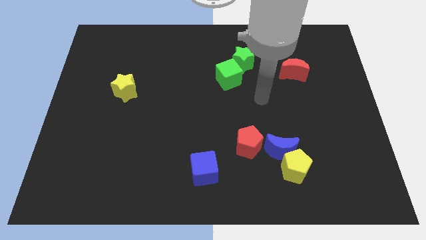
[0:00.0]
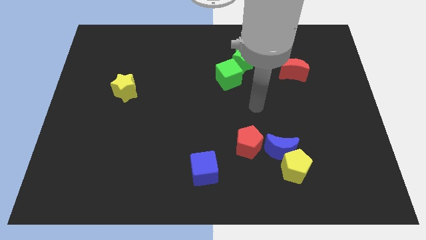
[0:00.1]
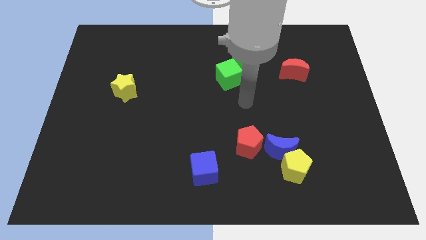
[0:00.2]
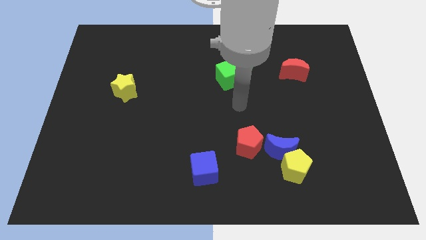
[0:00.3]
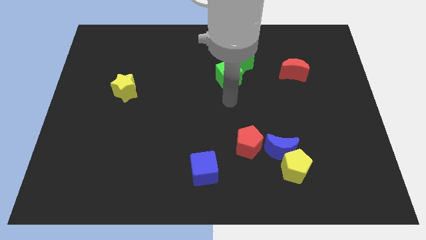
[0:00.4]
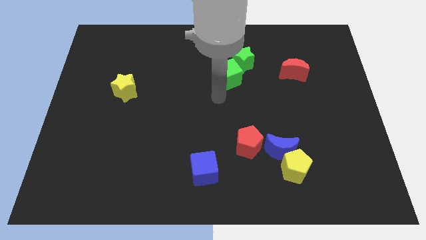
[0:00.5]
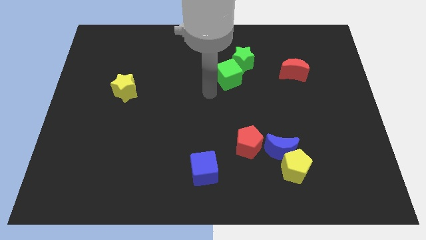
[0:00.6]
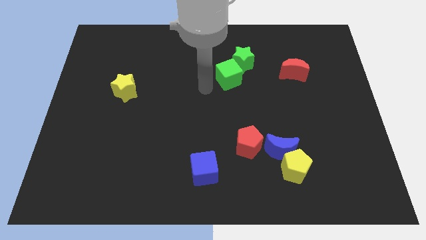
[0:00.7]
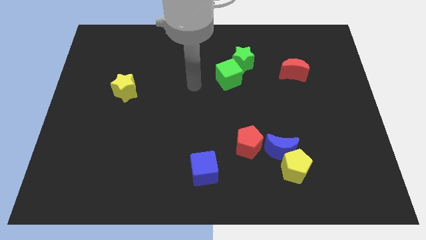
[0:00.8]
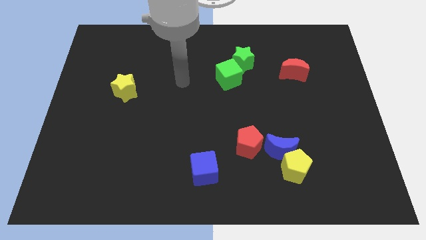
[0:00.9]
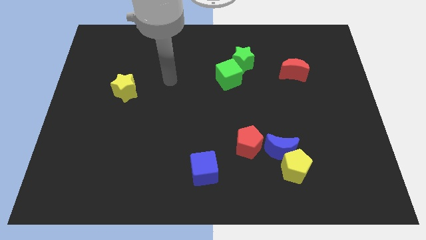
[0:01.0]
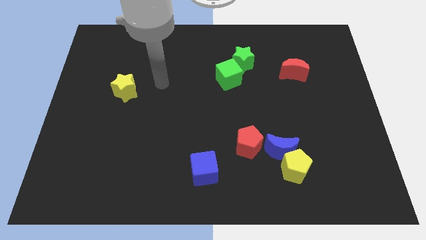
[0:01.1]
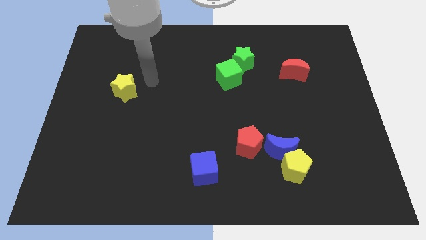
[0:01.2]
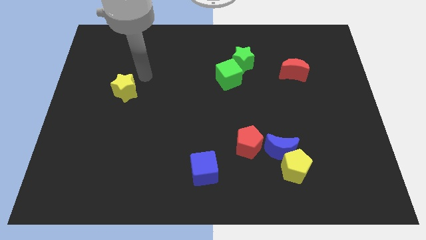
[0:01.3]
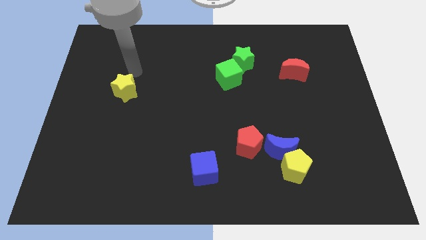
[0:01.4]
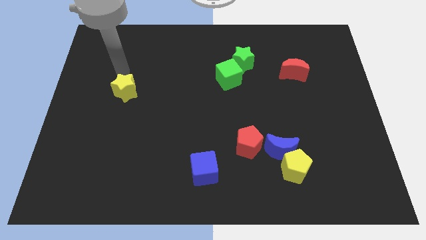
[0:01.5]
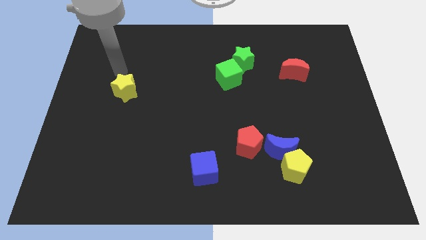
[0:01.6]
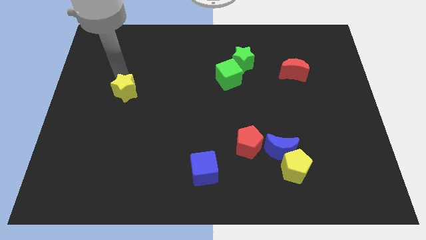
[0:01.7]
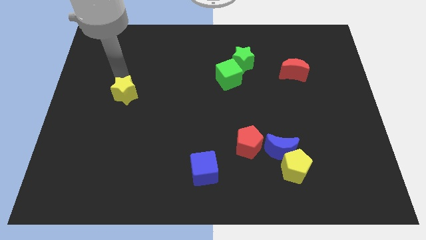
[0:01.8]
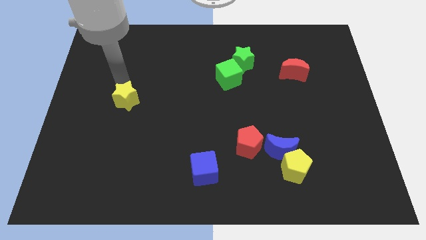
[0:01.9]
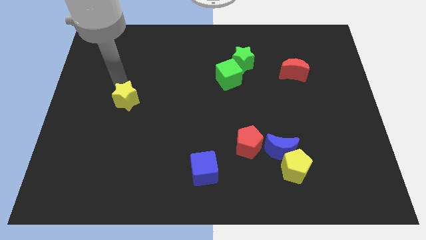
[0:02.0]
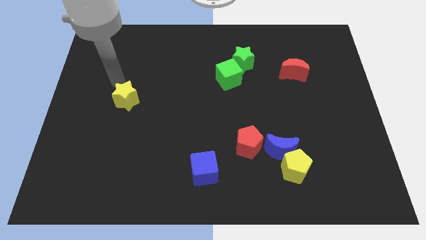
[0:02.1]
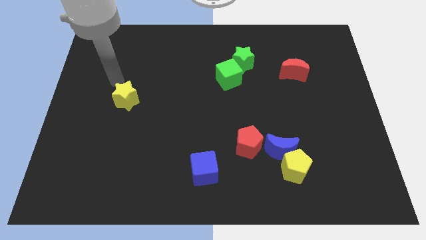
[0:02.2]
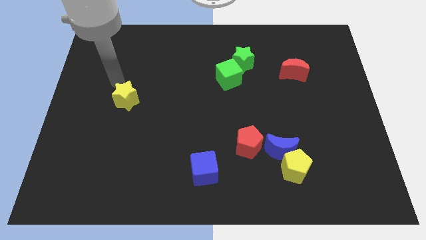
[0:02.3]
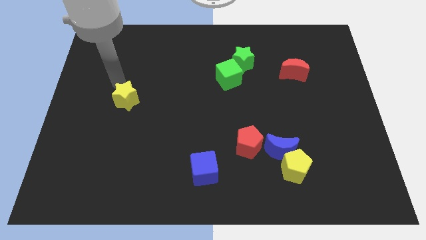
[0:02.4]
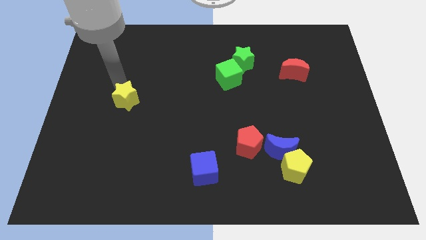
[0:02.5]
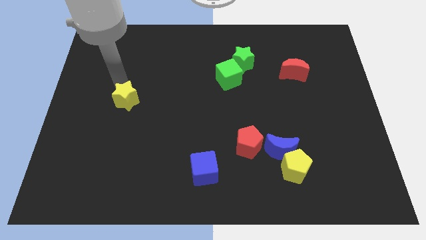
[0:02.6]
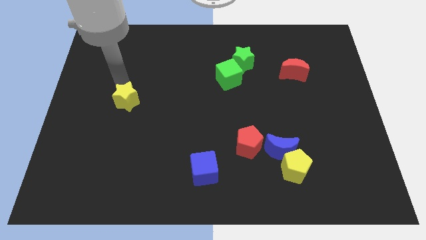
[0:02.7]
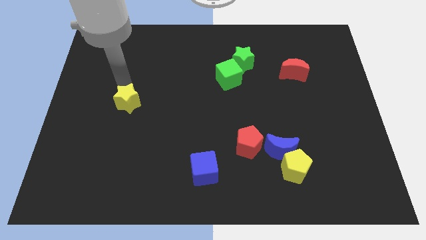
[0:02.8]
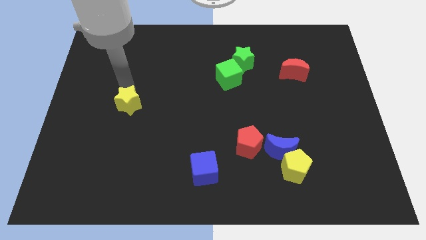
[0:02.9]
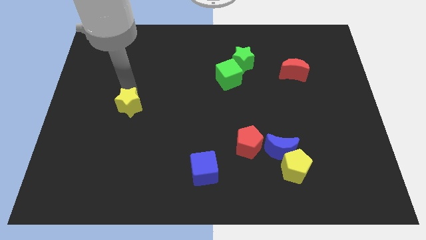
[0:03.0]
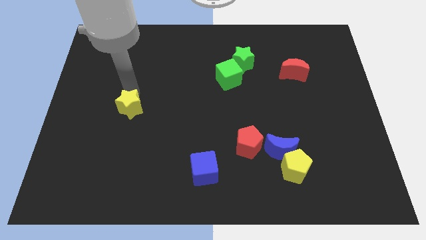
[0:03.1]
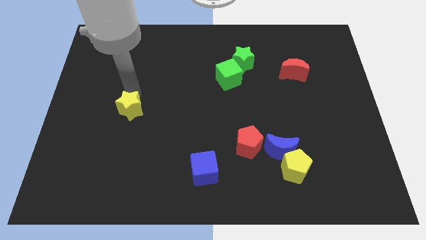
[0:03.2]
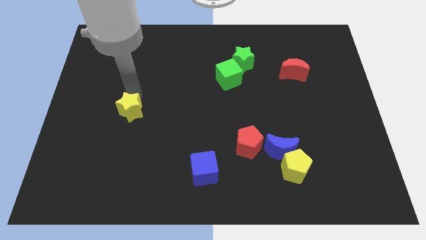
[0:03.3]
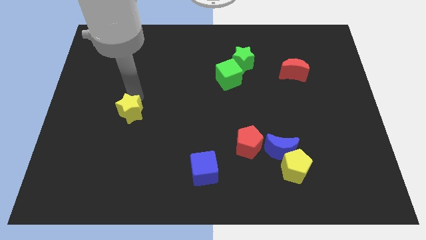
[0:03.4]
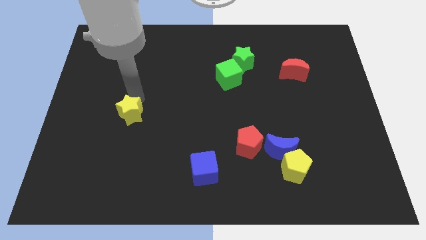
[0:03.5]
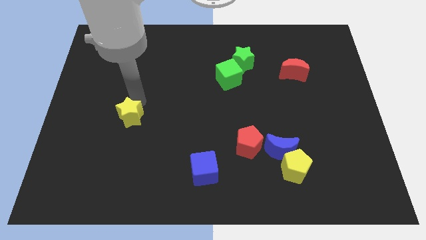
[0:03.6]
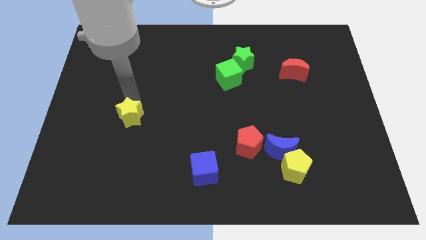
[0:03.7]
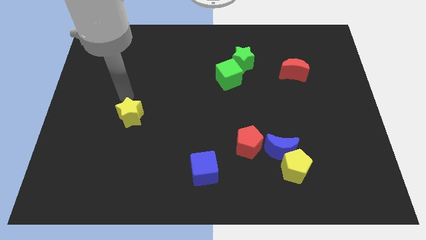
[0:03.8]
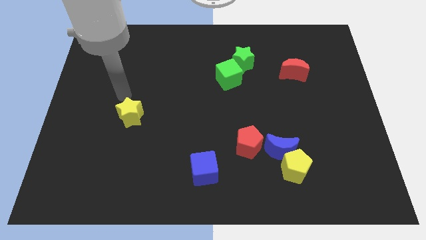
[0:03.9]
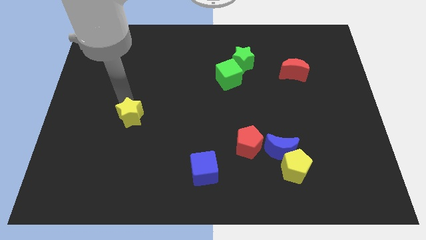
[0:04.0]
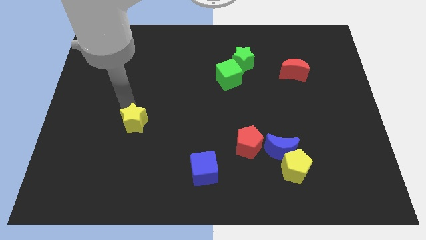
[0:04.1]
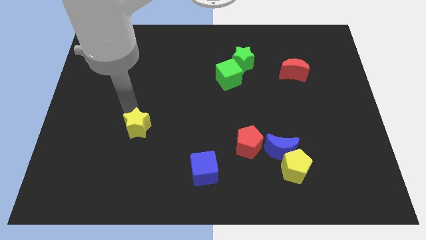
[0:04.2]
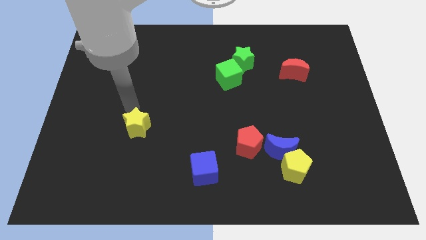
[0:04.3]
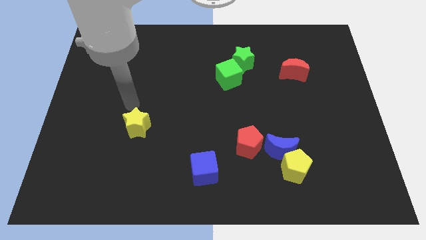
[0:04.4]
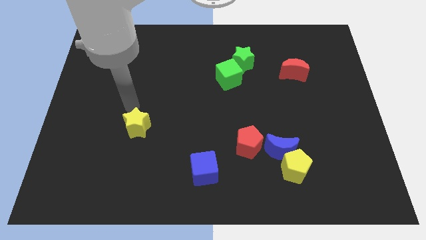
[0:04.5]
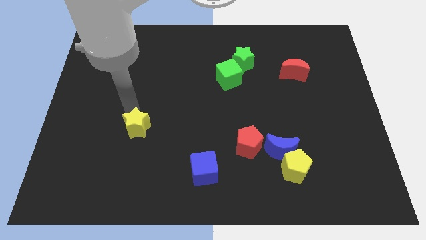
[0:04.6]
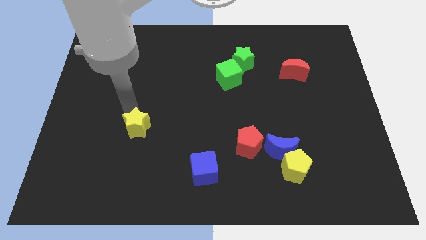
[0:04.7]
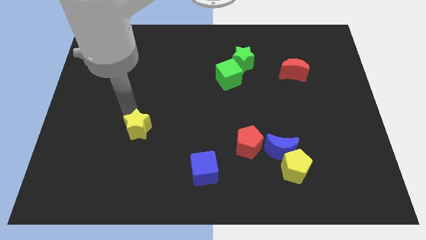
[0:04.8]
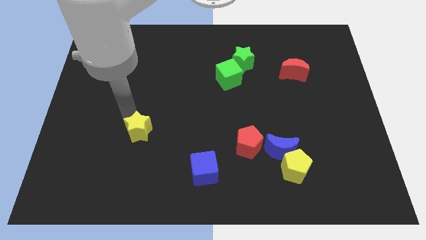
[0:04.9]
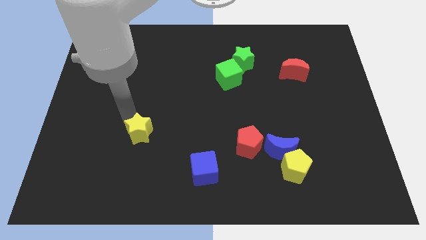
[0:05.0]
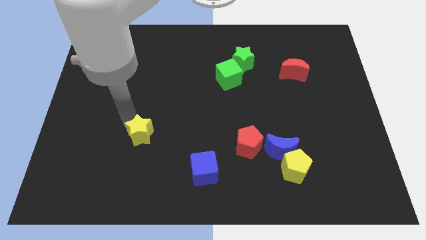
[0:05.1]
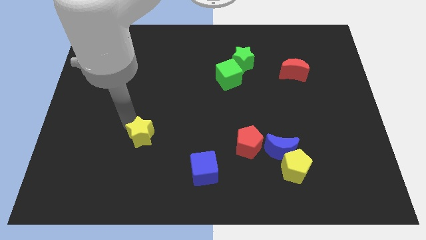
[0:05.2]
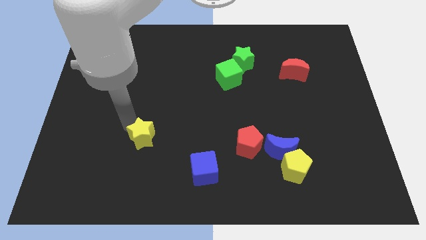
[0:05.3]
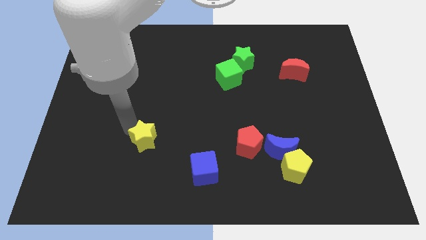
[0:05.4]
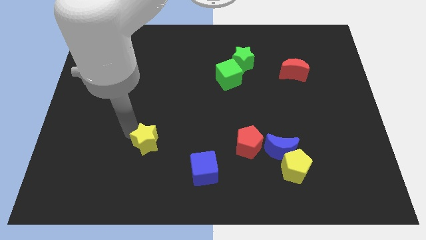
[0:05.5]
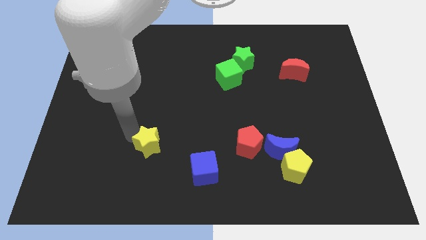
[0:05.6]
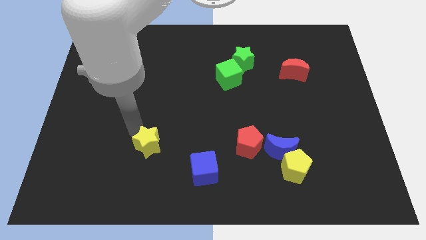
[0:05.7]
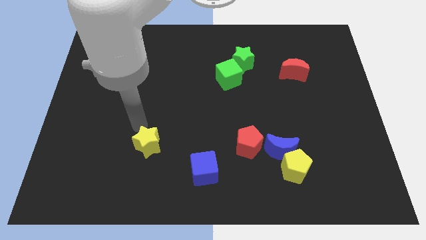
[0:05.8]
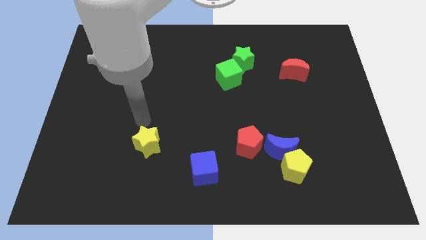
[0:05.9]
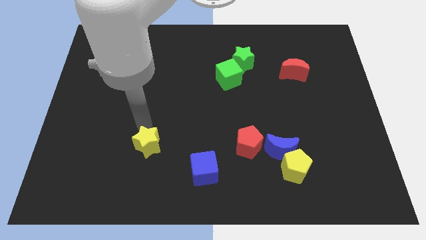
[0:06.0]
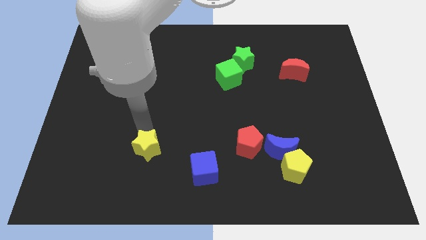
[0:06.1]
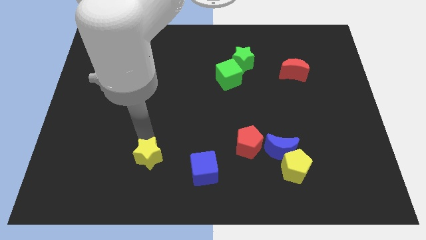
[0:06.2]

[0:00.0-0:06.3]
slide the yellow star left of the blue cube

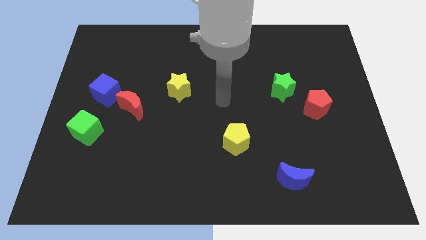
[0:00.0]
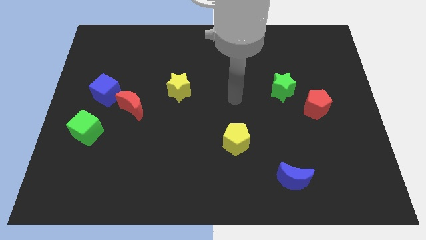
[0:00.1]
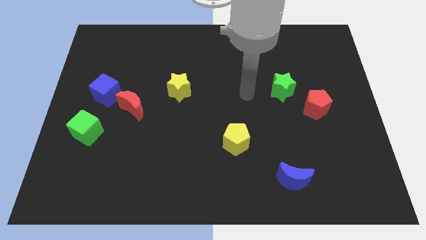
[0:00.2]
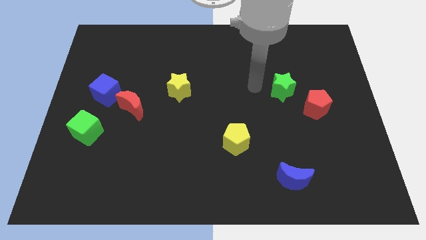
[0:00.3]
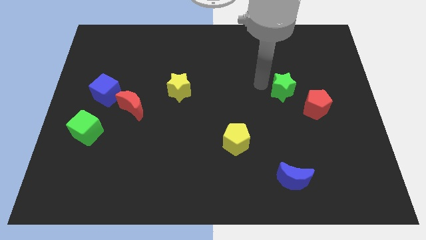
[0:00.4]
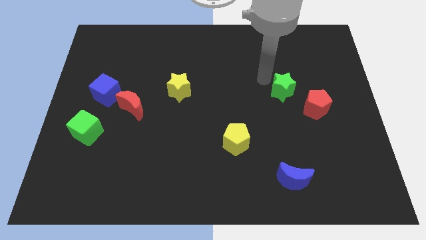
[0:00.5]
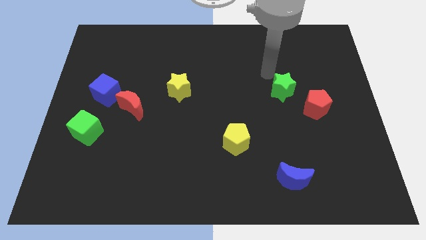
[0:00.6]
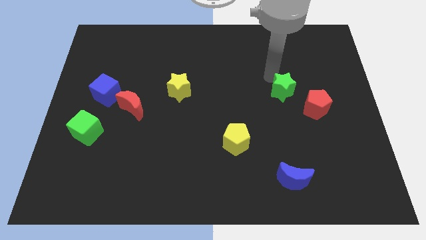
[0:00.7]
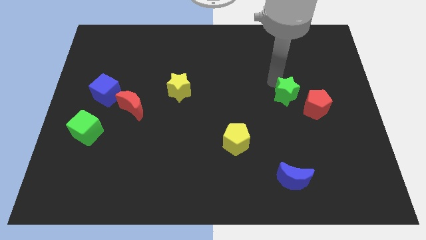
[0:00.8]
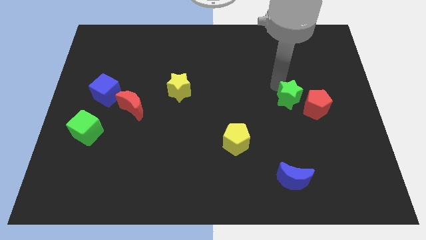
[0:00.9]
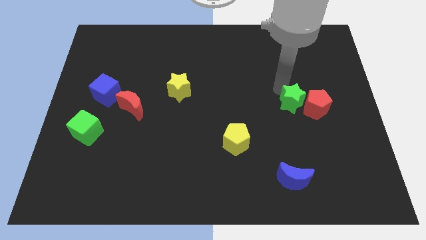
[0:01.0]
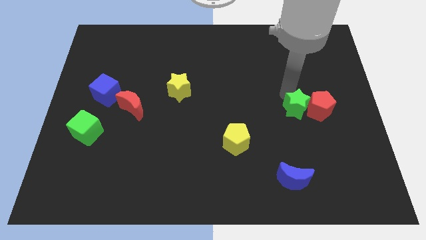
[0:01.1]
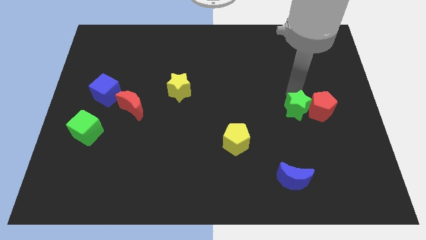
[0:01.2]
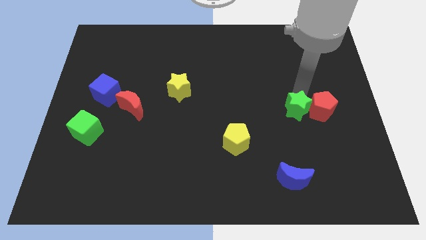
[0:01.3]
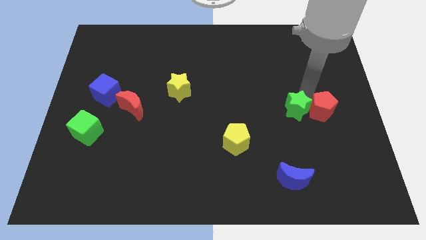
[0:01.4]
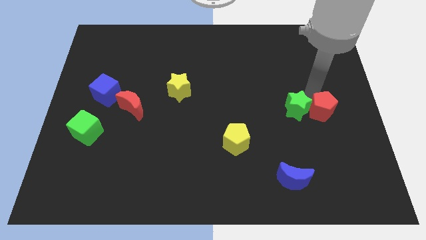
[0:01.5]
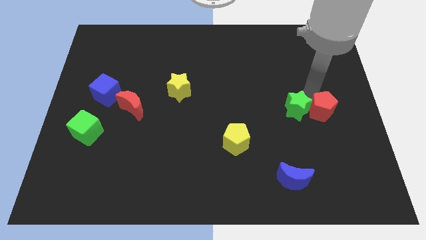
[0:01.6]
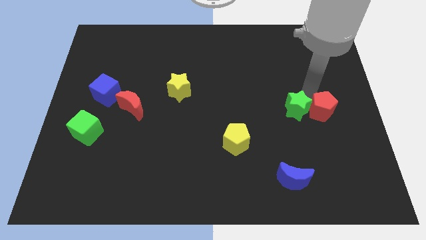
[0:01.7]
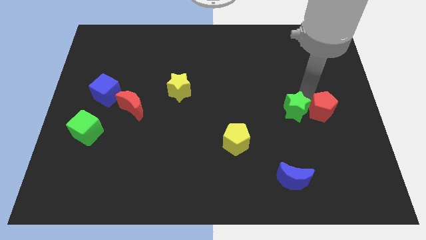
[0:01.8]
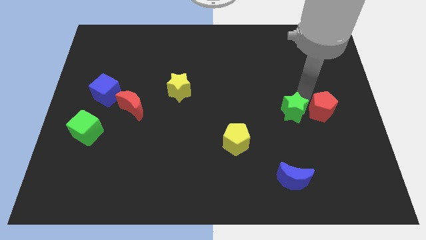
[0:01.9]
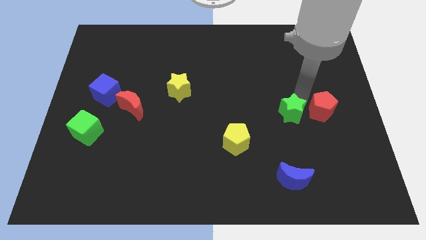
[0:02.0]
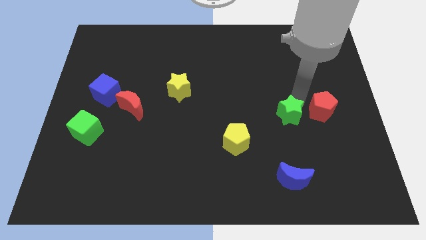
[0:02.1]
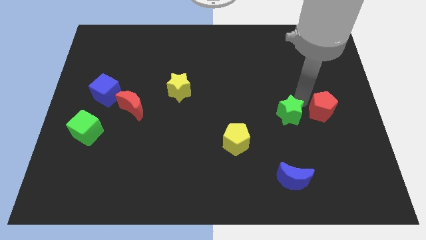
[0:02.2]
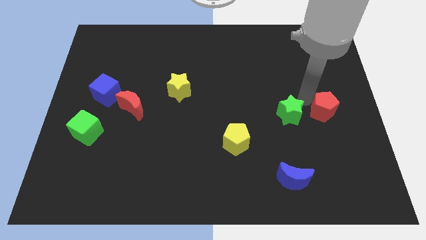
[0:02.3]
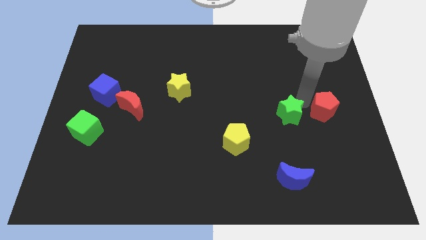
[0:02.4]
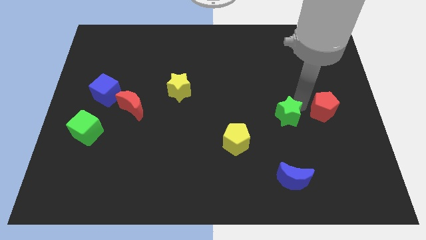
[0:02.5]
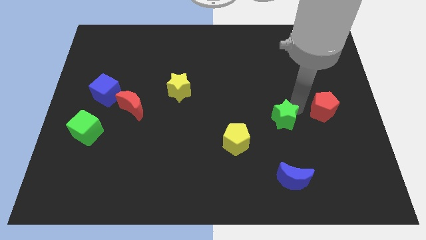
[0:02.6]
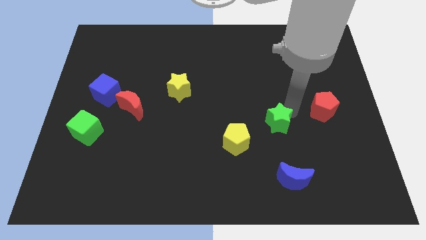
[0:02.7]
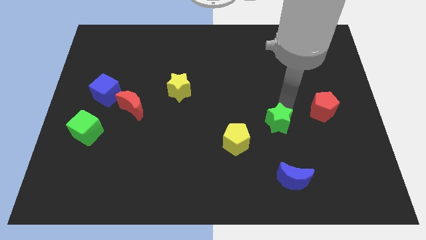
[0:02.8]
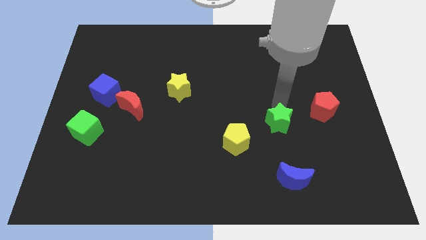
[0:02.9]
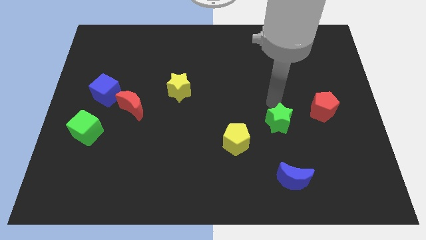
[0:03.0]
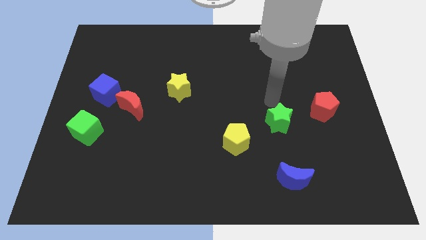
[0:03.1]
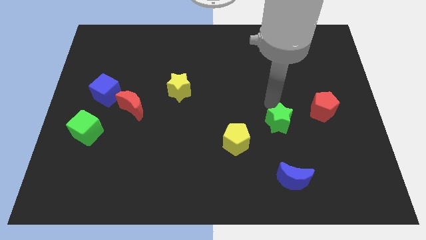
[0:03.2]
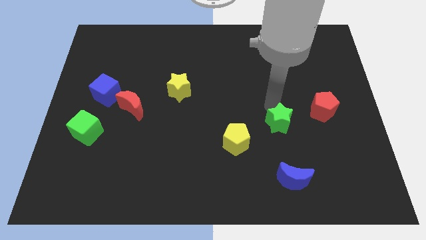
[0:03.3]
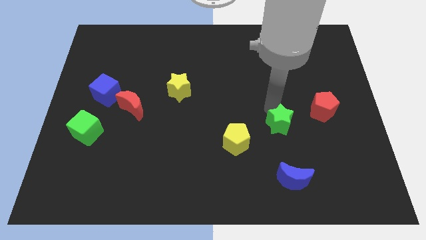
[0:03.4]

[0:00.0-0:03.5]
move the green star just right of the yellow pentagon
